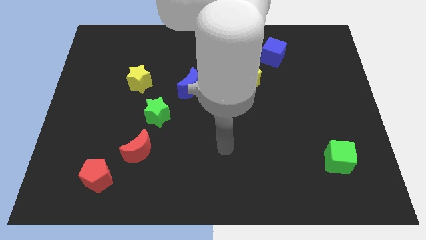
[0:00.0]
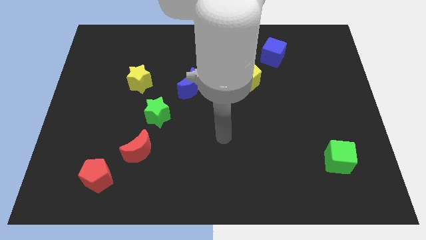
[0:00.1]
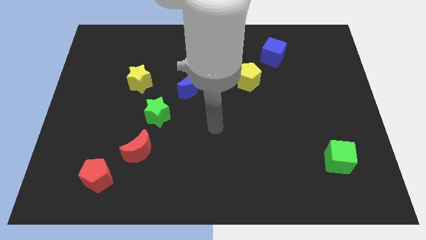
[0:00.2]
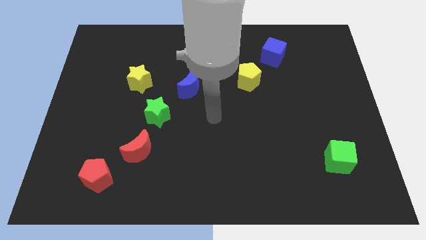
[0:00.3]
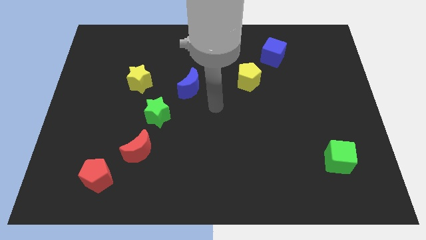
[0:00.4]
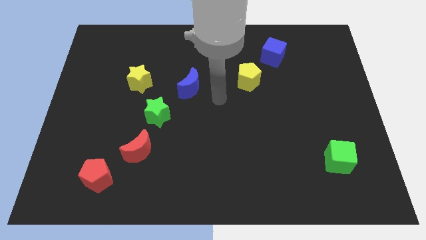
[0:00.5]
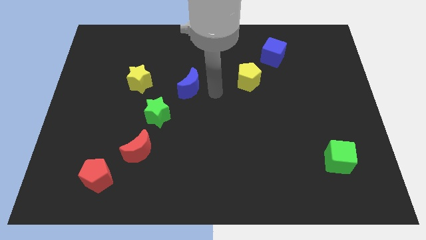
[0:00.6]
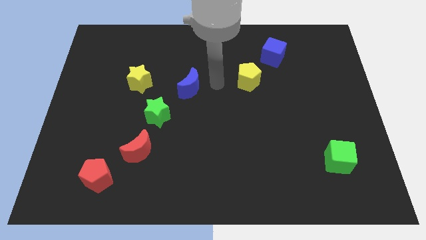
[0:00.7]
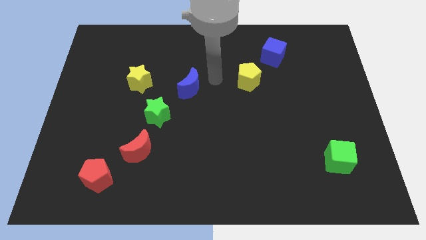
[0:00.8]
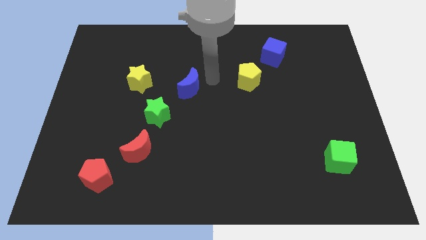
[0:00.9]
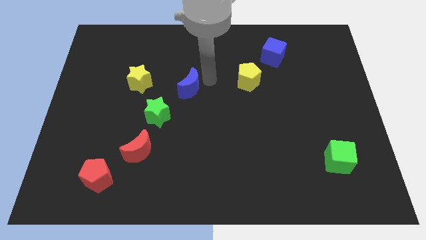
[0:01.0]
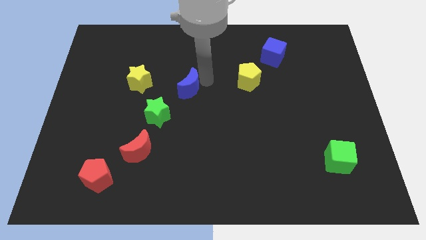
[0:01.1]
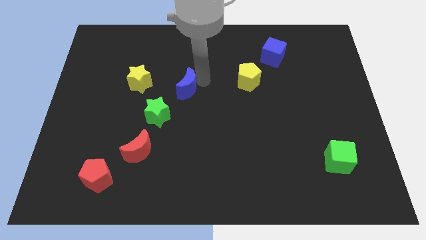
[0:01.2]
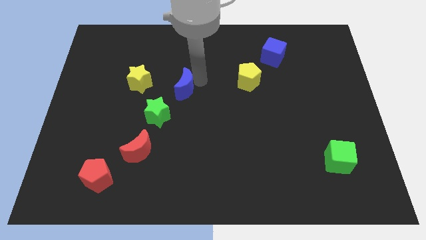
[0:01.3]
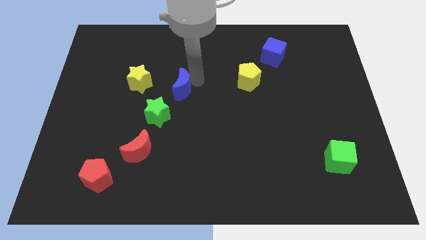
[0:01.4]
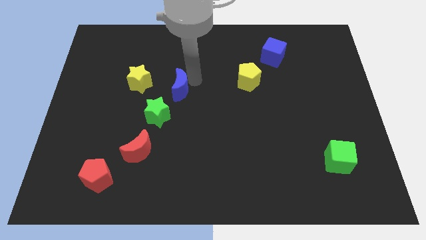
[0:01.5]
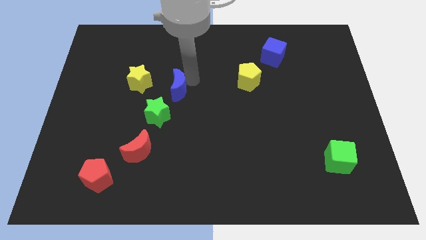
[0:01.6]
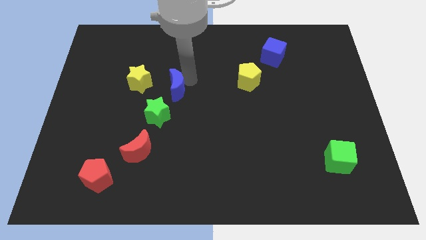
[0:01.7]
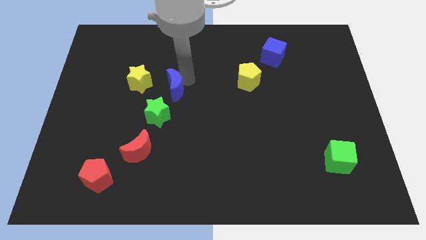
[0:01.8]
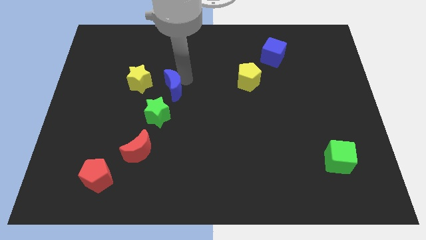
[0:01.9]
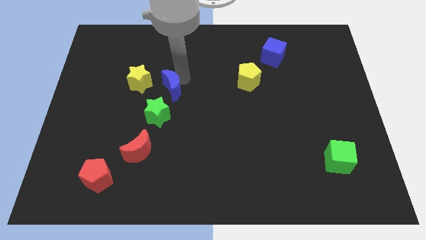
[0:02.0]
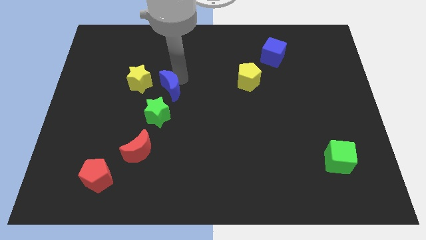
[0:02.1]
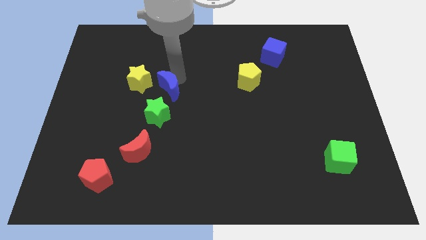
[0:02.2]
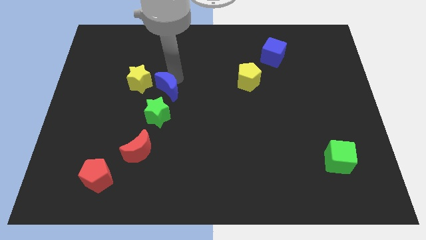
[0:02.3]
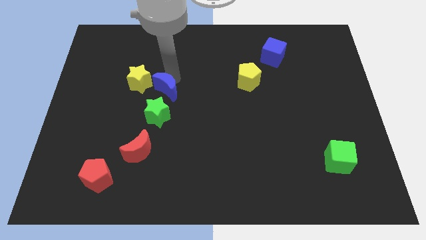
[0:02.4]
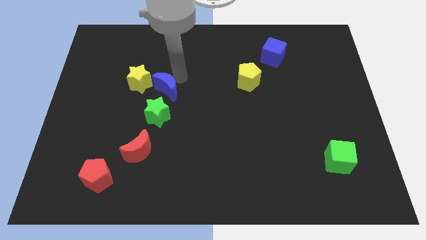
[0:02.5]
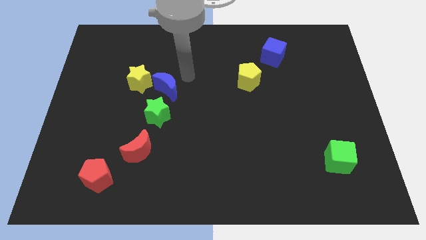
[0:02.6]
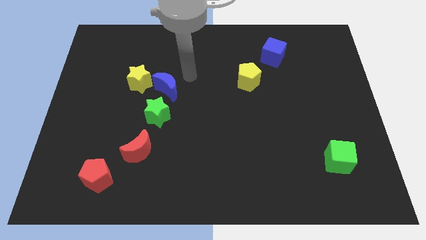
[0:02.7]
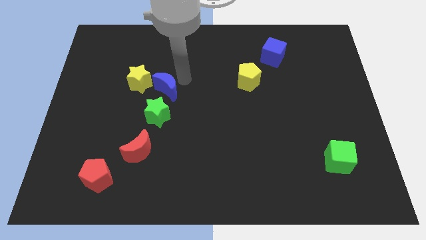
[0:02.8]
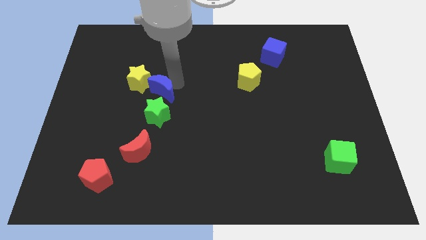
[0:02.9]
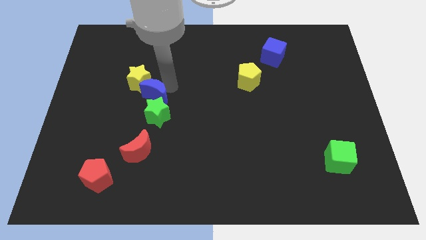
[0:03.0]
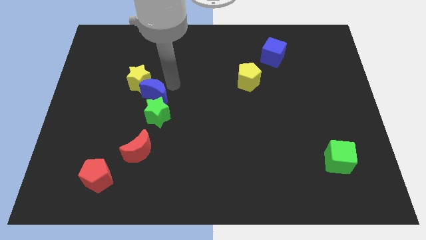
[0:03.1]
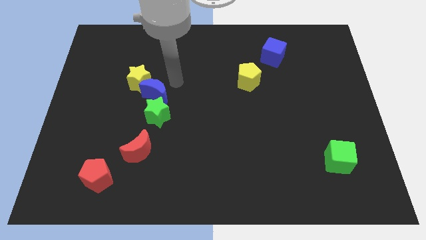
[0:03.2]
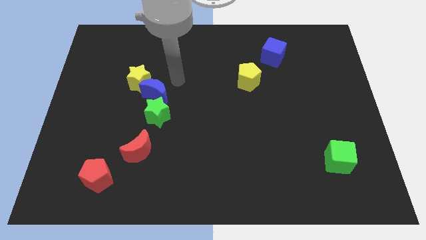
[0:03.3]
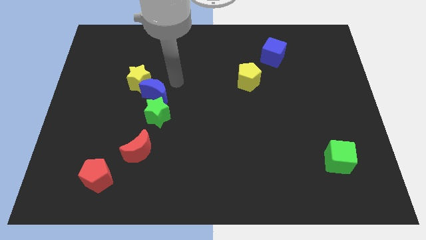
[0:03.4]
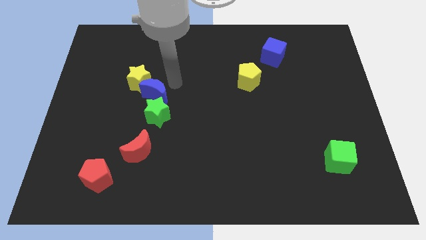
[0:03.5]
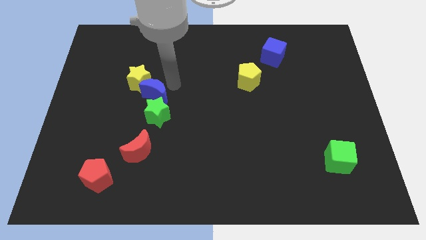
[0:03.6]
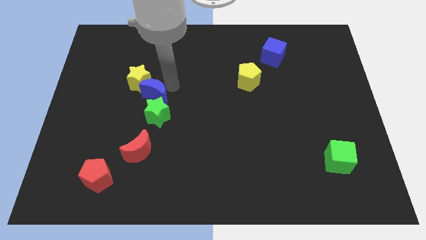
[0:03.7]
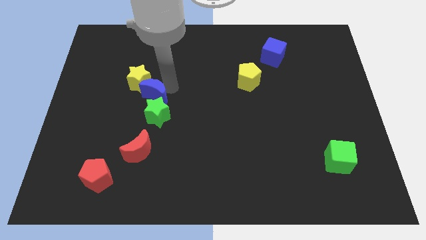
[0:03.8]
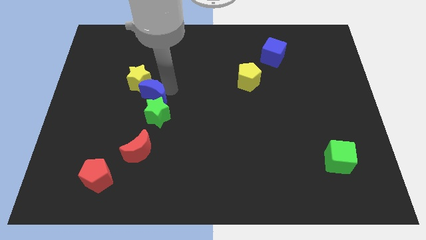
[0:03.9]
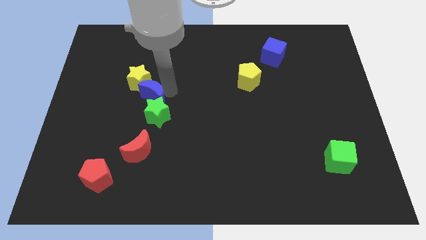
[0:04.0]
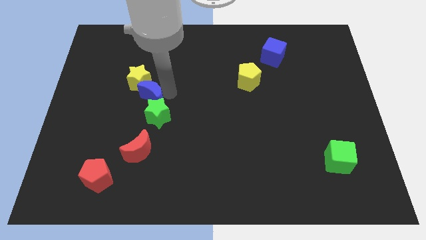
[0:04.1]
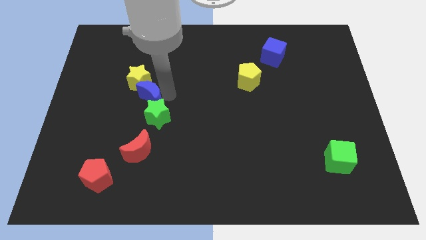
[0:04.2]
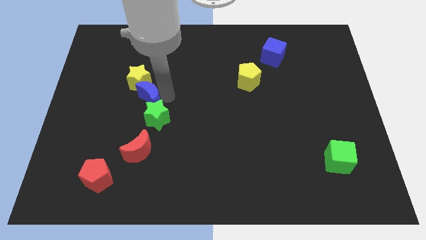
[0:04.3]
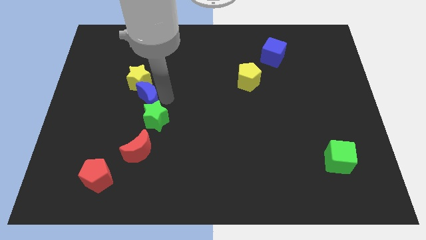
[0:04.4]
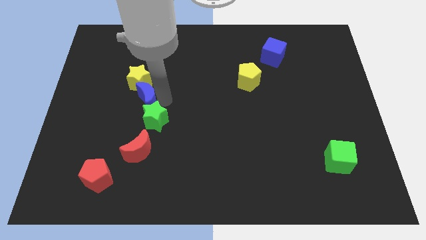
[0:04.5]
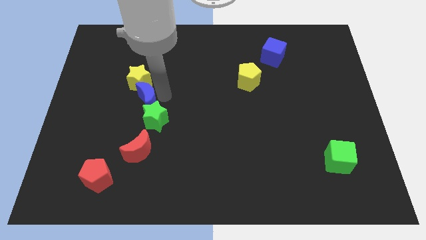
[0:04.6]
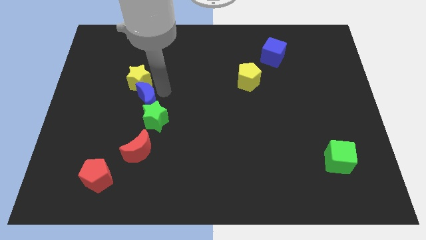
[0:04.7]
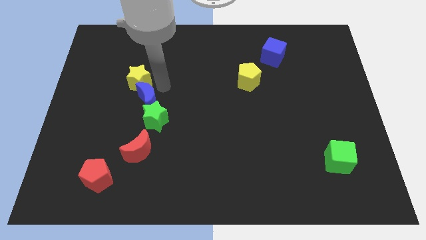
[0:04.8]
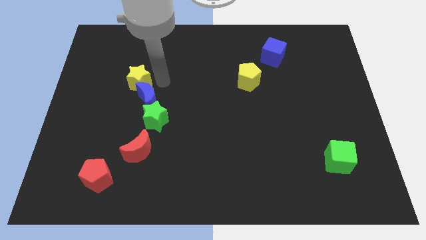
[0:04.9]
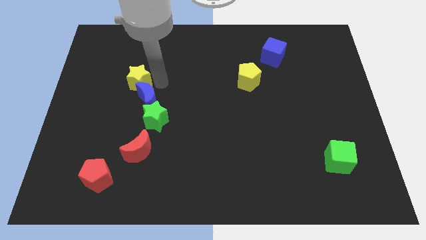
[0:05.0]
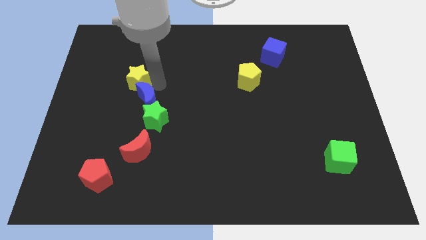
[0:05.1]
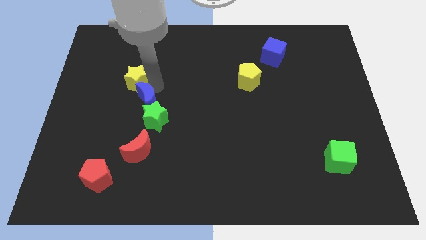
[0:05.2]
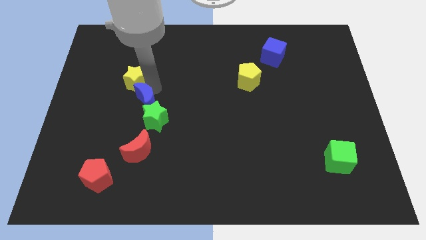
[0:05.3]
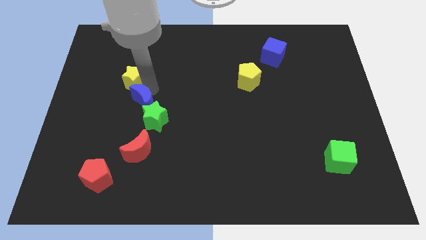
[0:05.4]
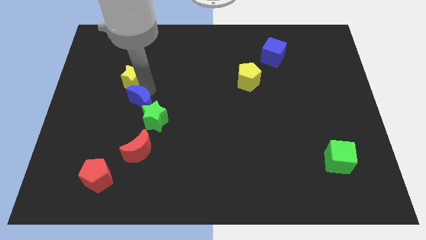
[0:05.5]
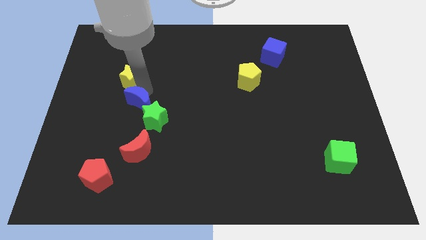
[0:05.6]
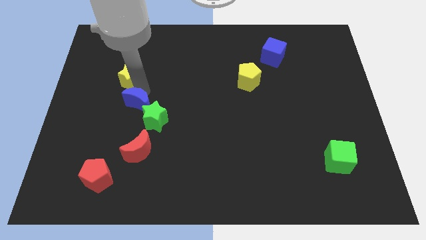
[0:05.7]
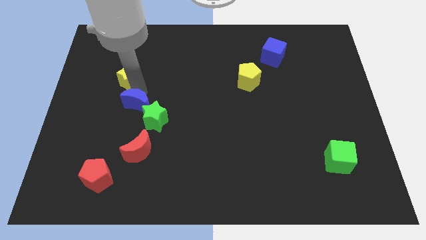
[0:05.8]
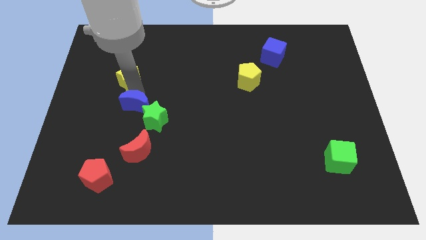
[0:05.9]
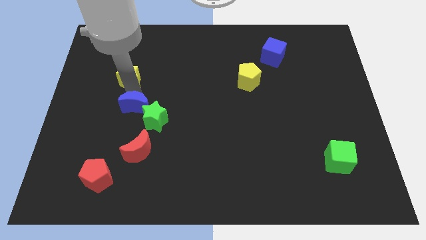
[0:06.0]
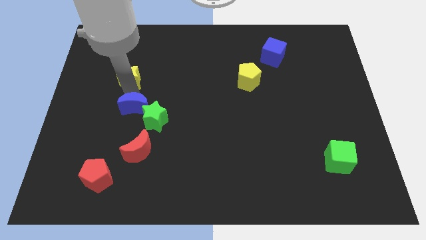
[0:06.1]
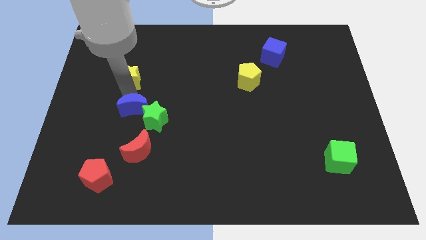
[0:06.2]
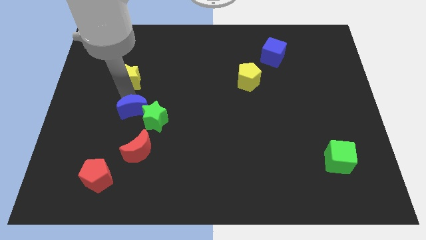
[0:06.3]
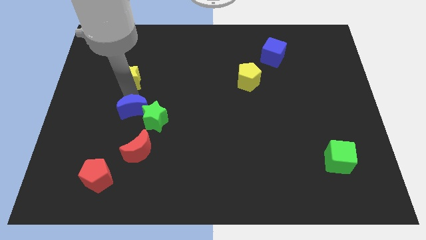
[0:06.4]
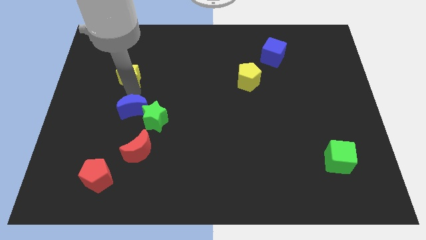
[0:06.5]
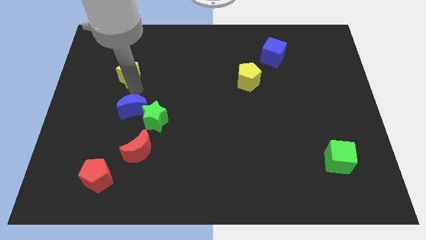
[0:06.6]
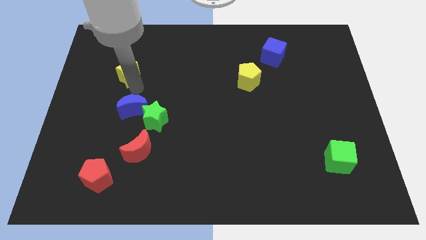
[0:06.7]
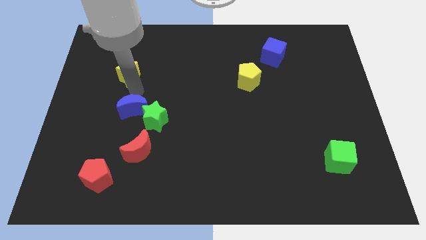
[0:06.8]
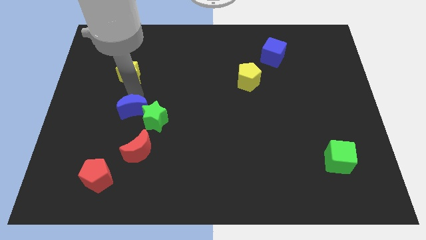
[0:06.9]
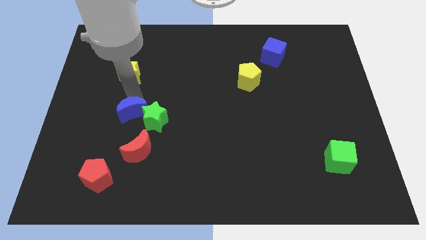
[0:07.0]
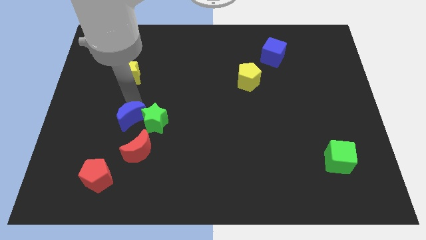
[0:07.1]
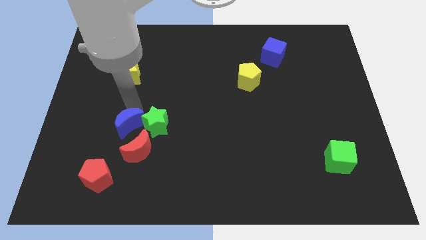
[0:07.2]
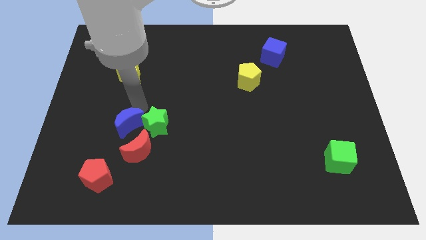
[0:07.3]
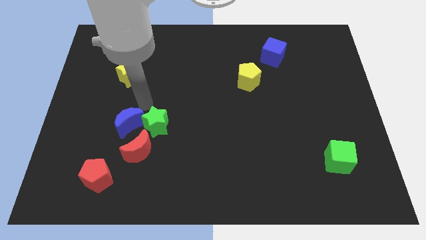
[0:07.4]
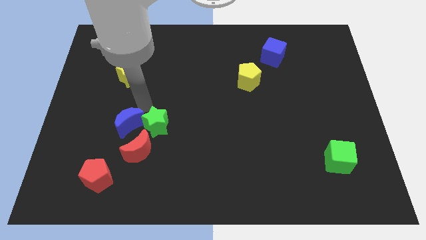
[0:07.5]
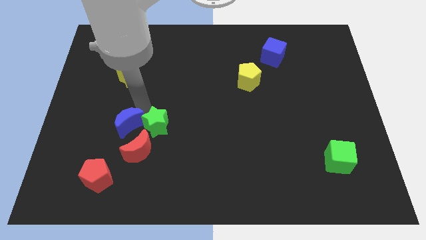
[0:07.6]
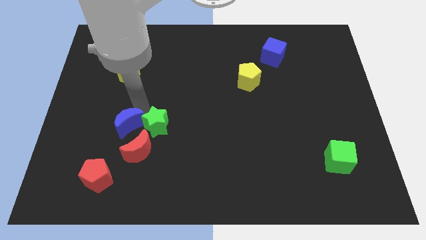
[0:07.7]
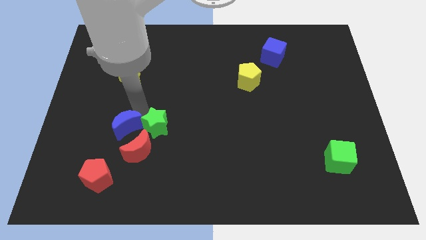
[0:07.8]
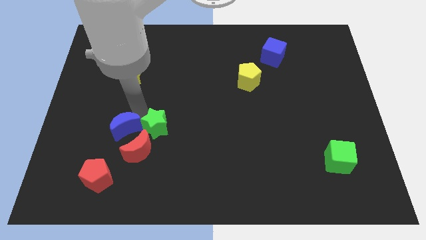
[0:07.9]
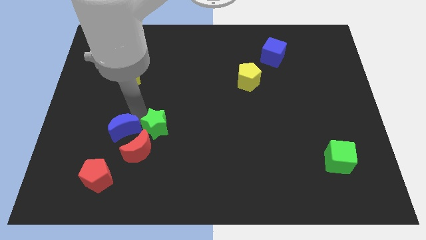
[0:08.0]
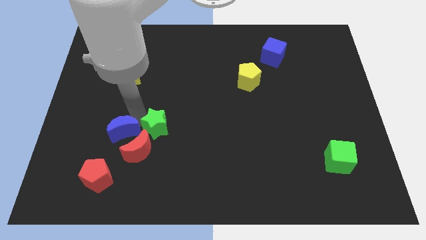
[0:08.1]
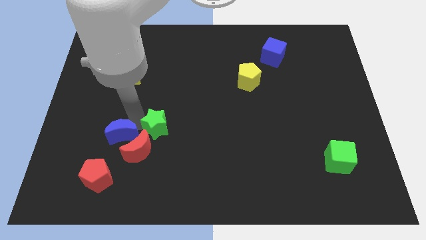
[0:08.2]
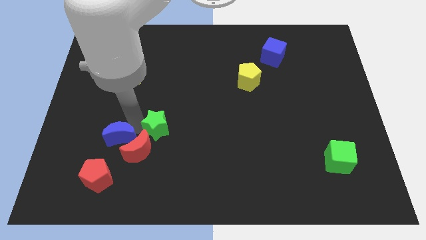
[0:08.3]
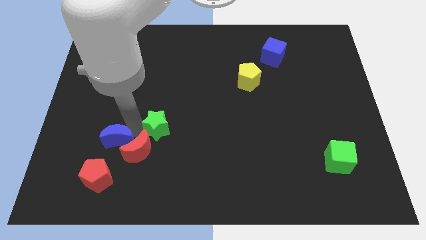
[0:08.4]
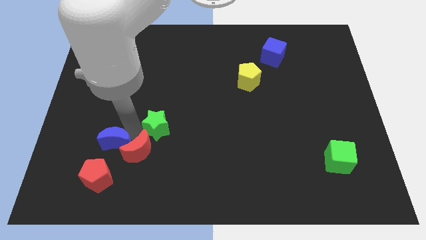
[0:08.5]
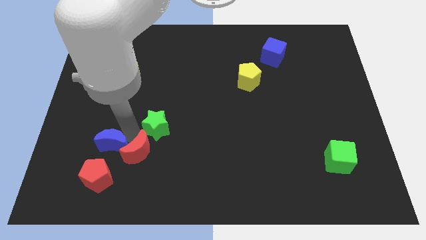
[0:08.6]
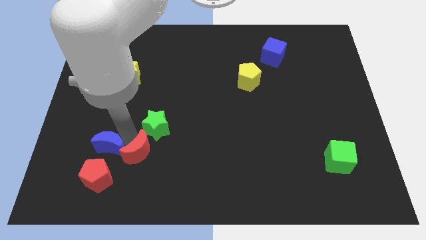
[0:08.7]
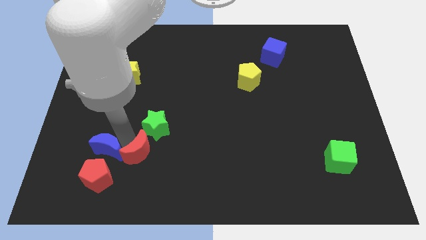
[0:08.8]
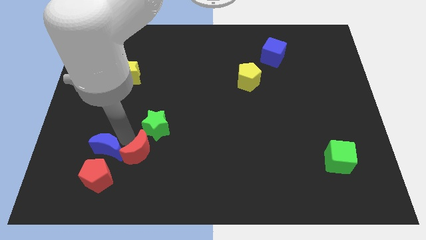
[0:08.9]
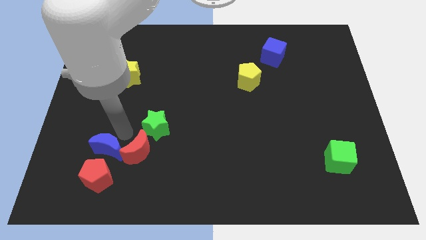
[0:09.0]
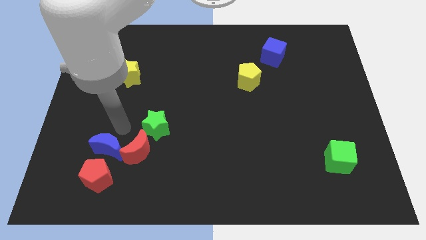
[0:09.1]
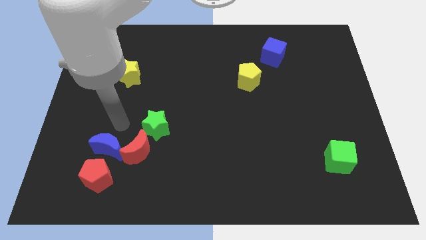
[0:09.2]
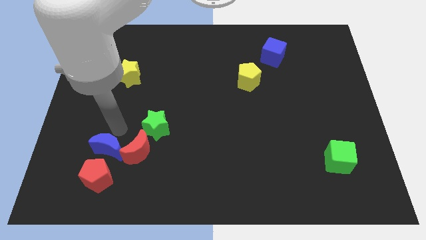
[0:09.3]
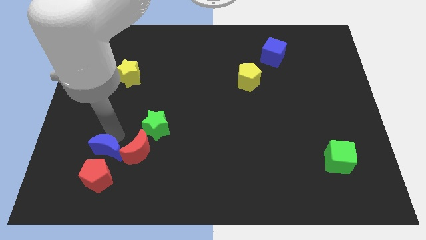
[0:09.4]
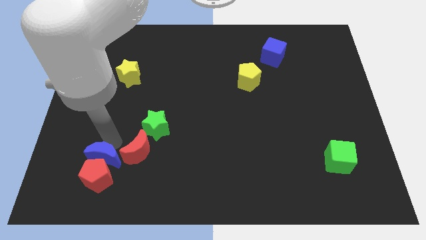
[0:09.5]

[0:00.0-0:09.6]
slide the blue moon towards the red pentagon
